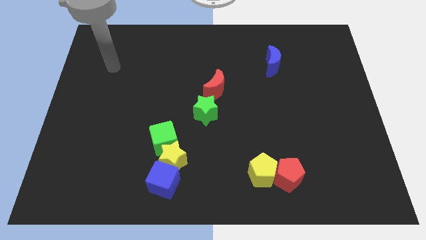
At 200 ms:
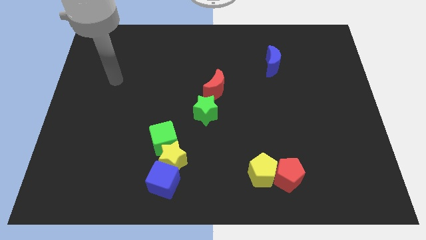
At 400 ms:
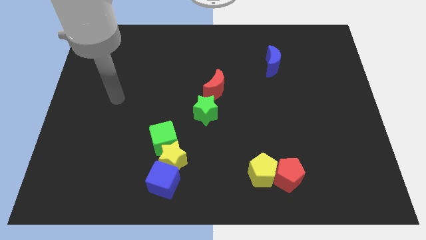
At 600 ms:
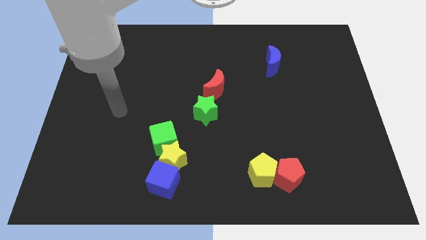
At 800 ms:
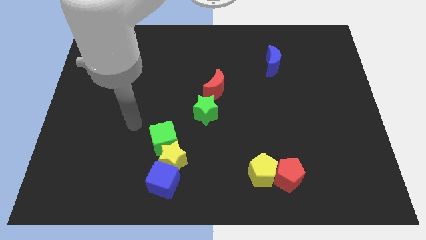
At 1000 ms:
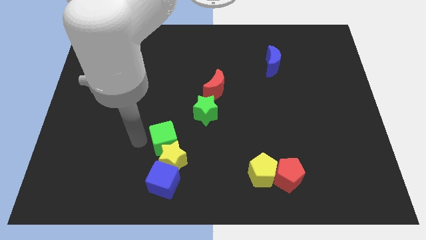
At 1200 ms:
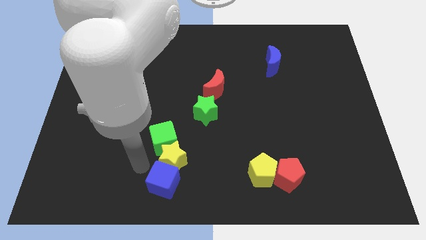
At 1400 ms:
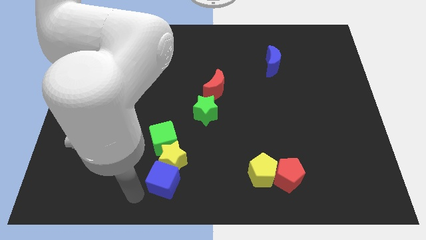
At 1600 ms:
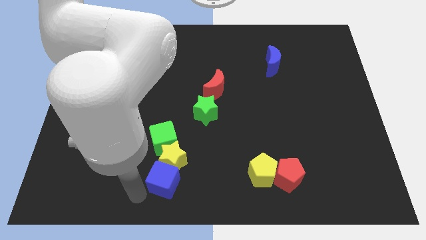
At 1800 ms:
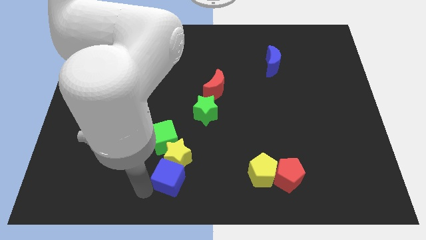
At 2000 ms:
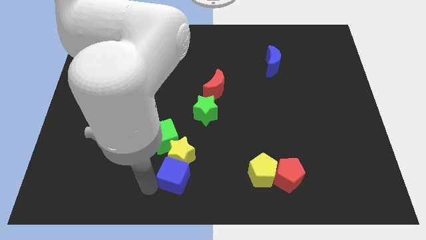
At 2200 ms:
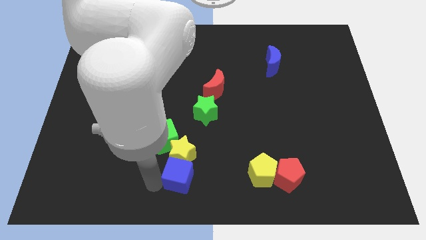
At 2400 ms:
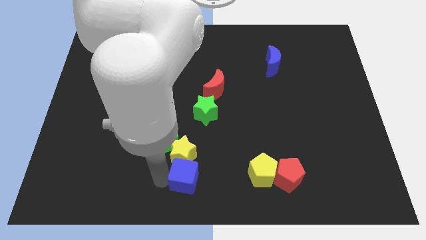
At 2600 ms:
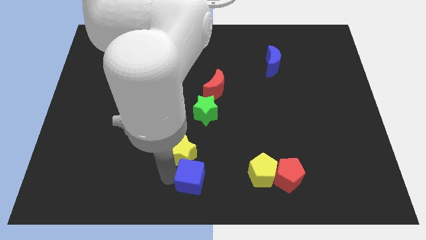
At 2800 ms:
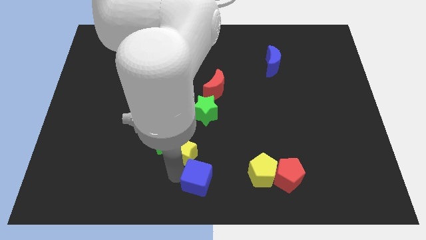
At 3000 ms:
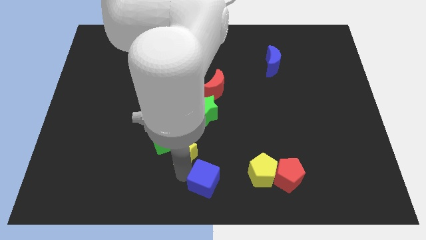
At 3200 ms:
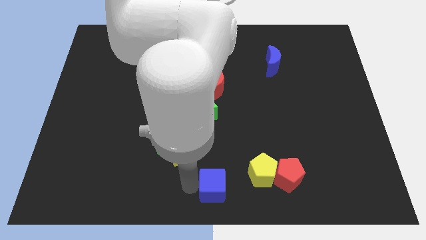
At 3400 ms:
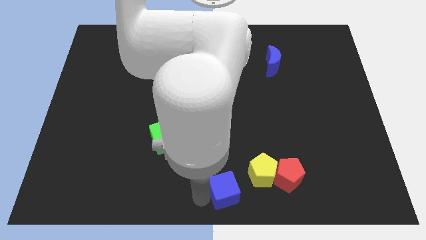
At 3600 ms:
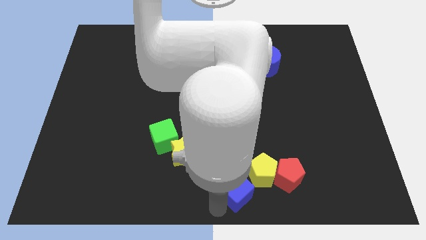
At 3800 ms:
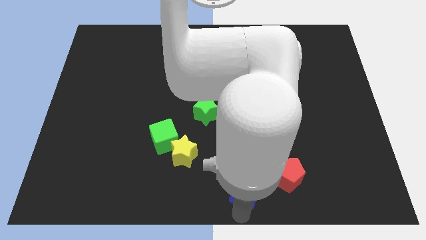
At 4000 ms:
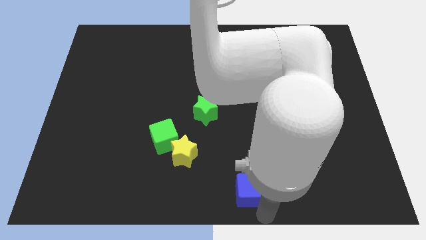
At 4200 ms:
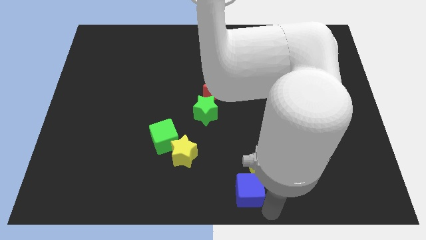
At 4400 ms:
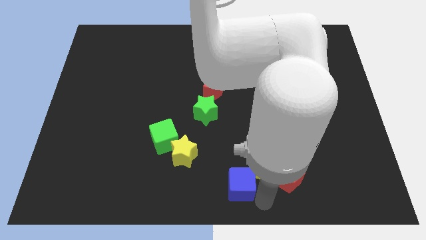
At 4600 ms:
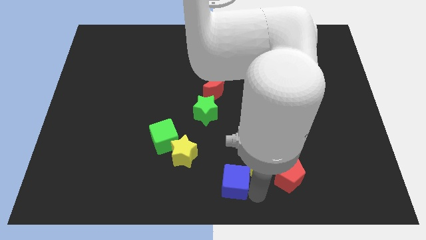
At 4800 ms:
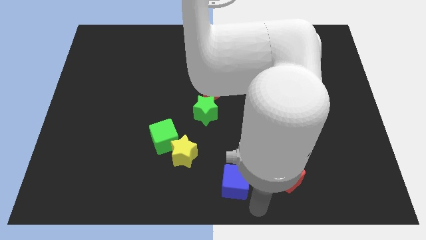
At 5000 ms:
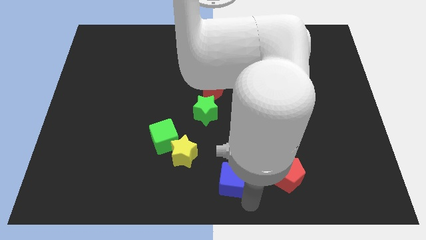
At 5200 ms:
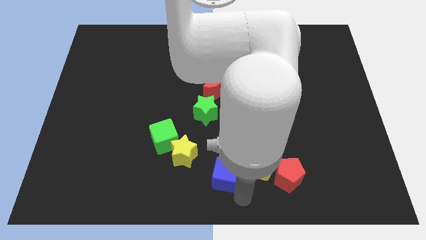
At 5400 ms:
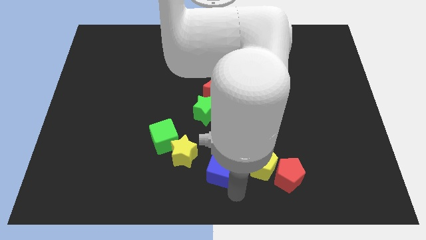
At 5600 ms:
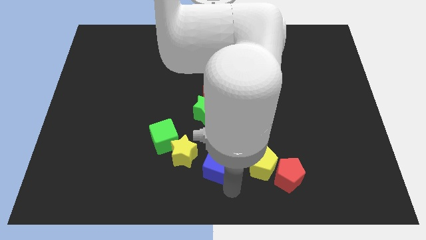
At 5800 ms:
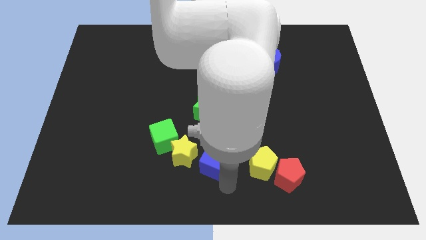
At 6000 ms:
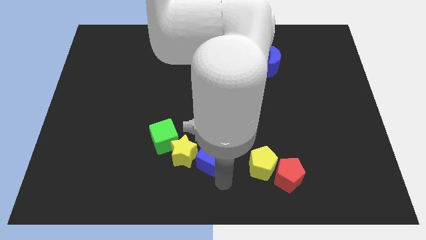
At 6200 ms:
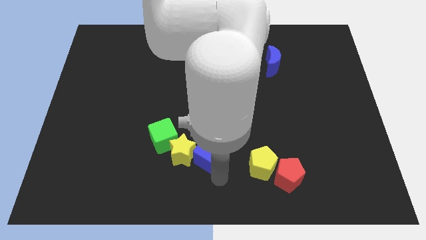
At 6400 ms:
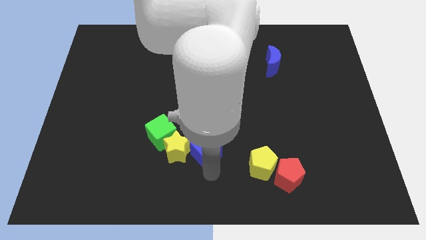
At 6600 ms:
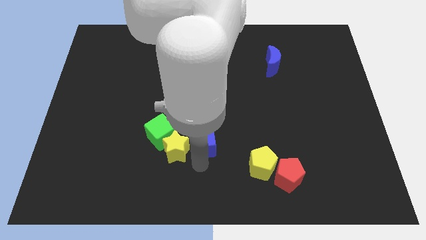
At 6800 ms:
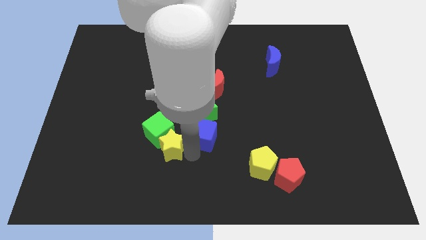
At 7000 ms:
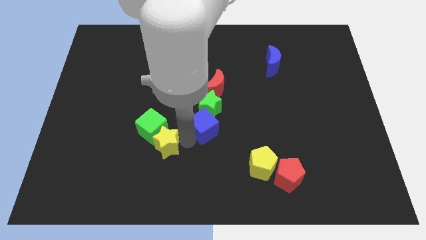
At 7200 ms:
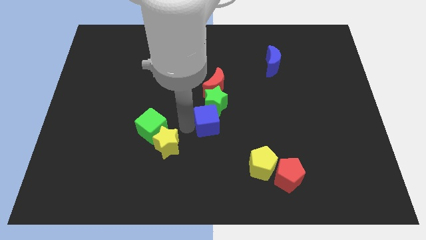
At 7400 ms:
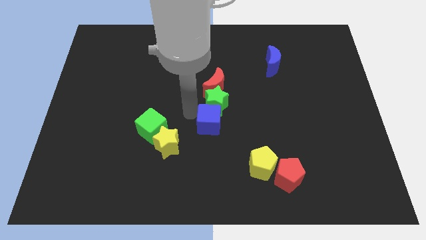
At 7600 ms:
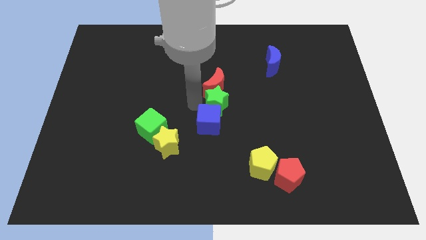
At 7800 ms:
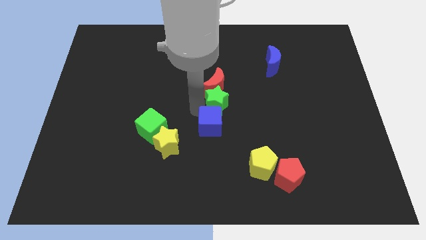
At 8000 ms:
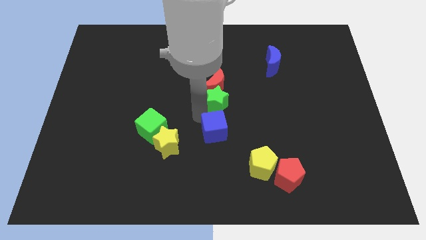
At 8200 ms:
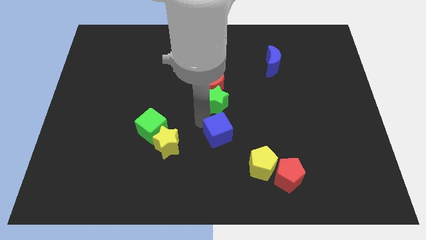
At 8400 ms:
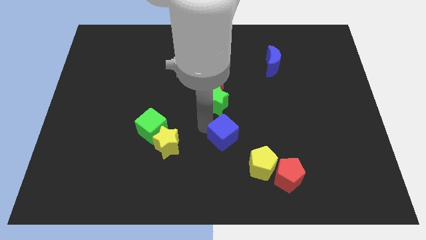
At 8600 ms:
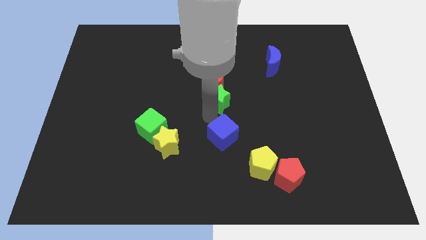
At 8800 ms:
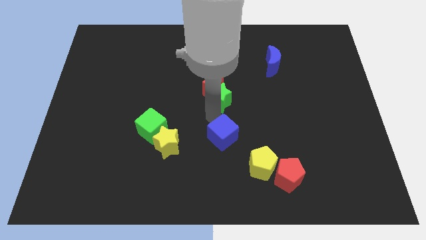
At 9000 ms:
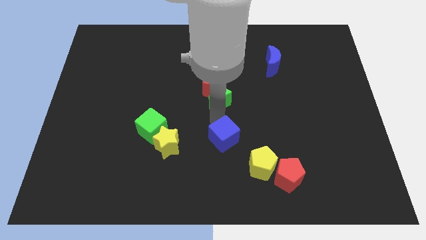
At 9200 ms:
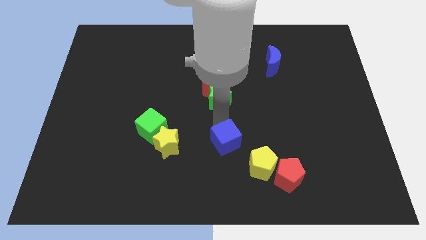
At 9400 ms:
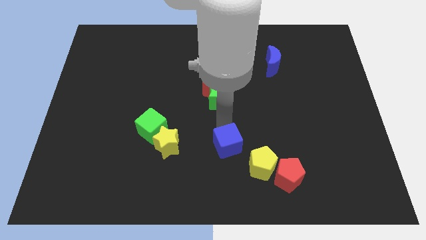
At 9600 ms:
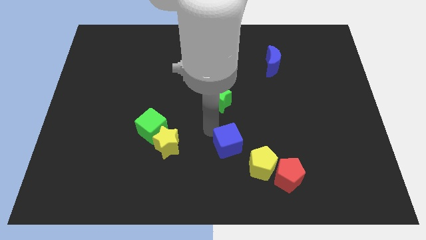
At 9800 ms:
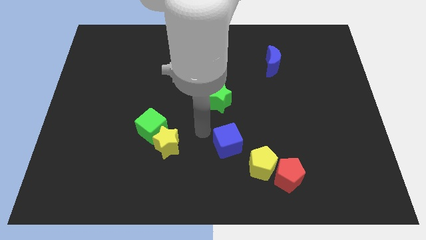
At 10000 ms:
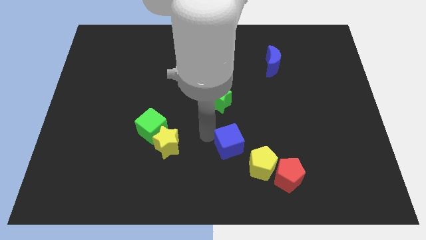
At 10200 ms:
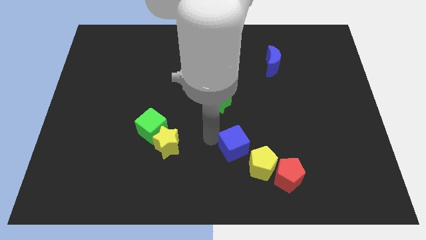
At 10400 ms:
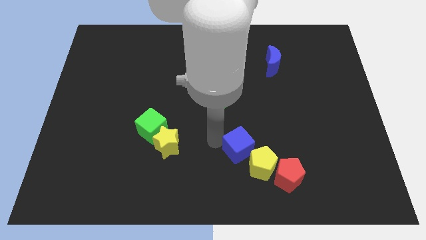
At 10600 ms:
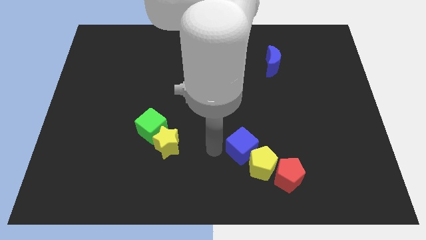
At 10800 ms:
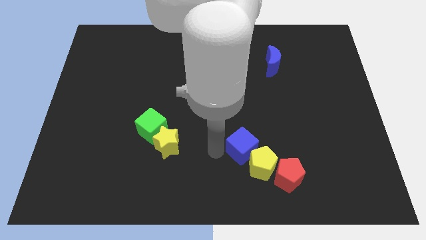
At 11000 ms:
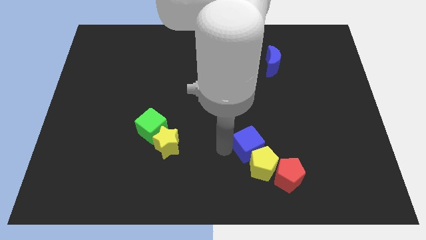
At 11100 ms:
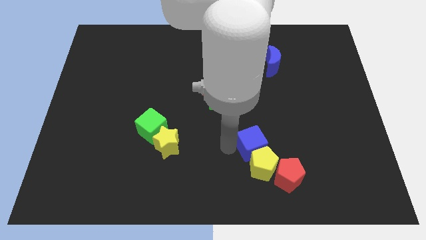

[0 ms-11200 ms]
put the blue cube diagonally up and to the right of the yellow pentagon

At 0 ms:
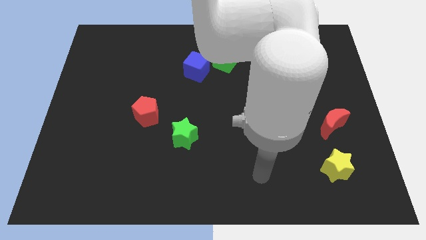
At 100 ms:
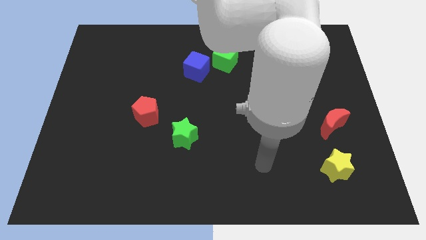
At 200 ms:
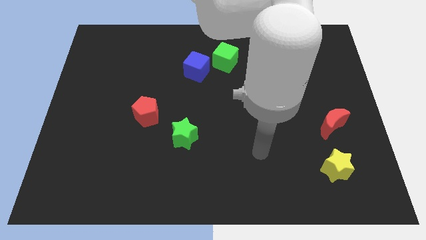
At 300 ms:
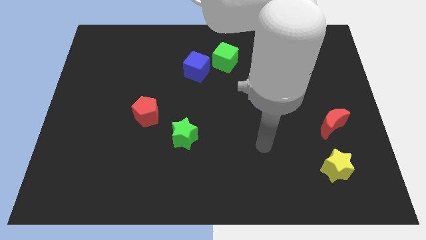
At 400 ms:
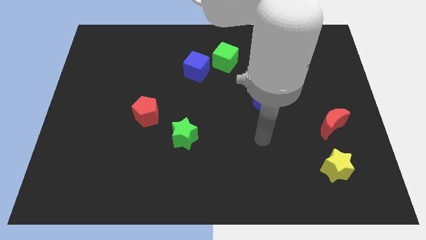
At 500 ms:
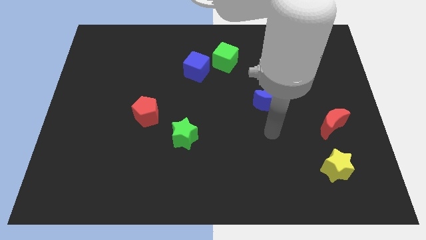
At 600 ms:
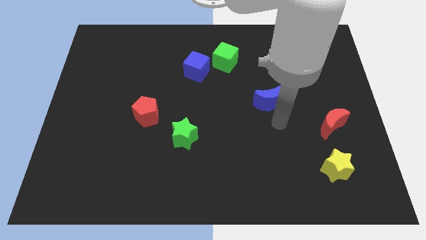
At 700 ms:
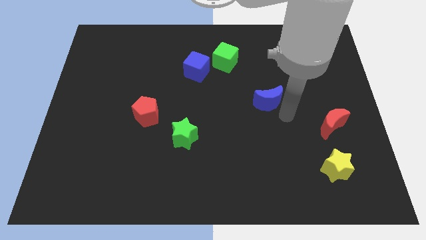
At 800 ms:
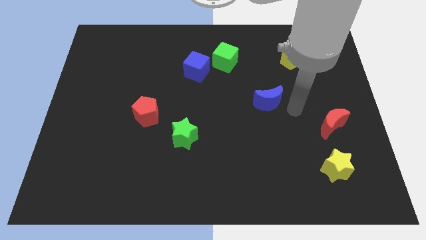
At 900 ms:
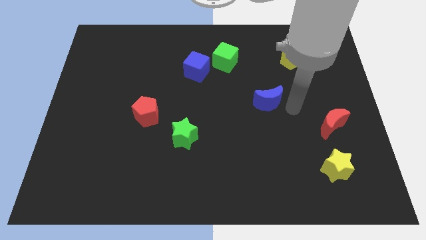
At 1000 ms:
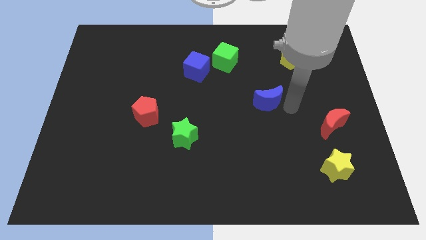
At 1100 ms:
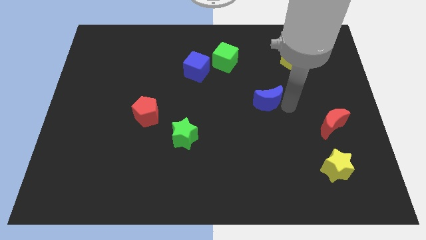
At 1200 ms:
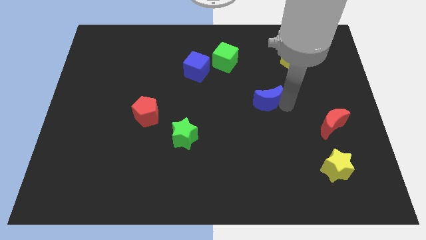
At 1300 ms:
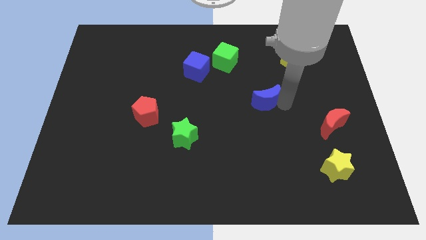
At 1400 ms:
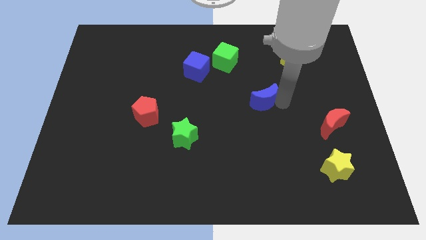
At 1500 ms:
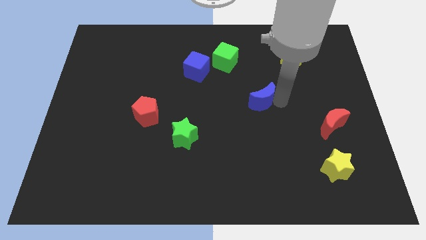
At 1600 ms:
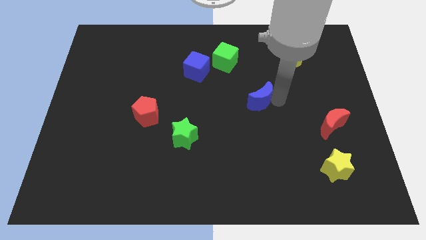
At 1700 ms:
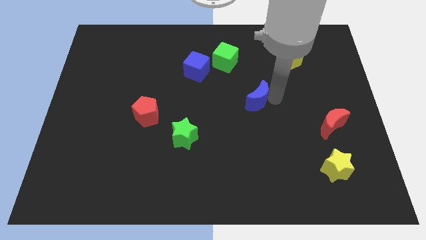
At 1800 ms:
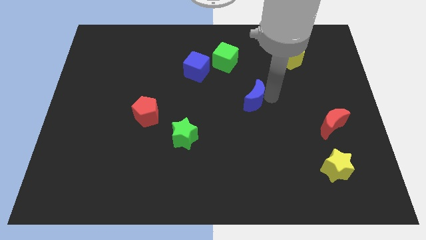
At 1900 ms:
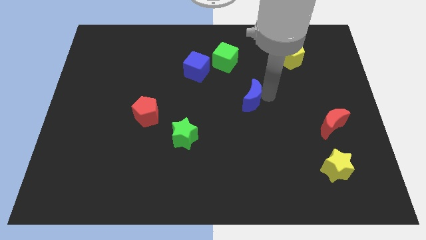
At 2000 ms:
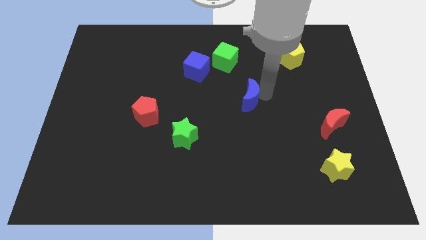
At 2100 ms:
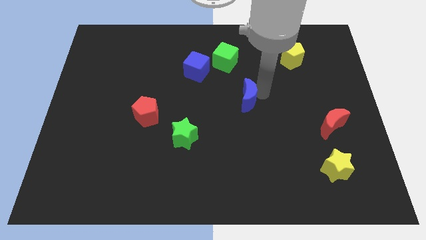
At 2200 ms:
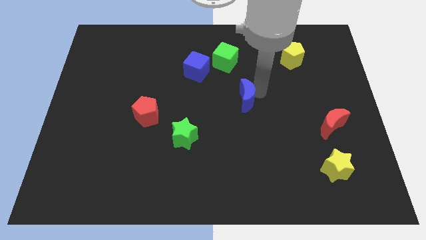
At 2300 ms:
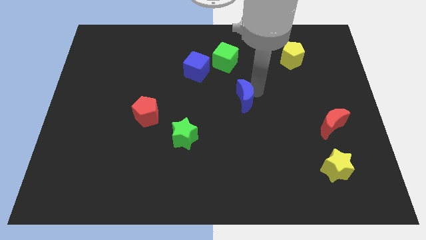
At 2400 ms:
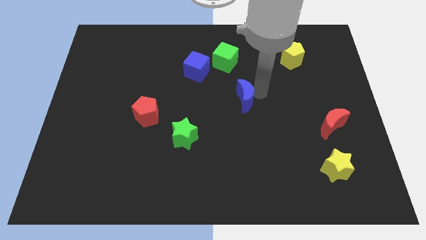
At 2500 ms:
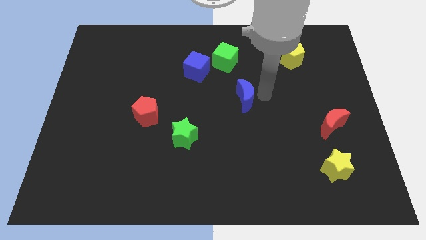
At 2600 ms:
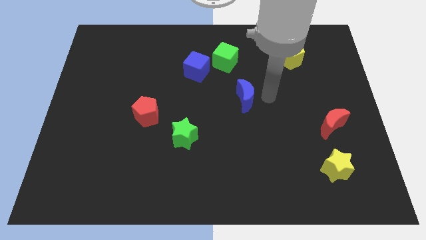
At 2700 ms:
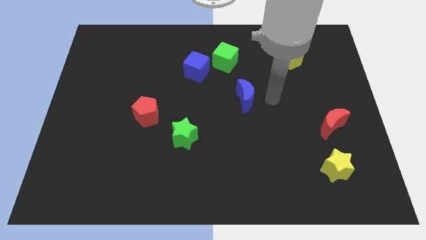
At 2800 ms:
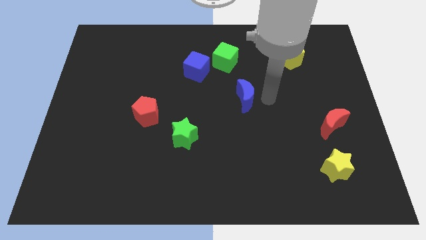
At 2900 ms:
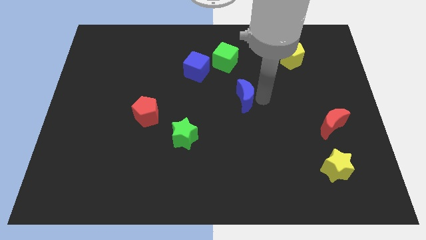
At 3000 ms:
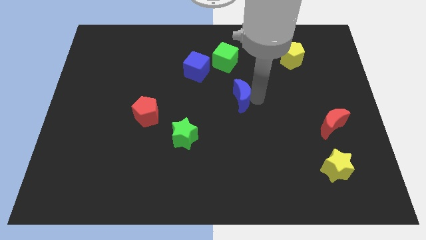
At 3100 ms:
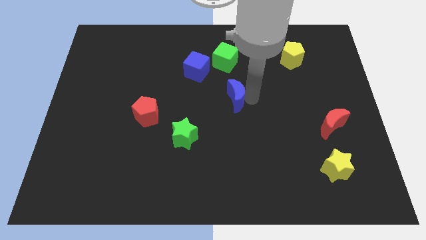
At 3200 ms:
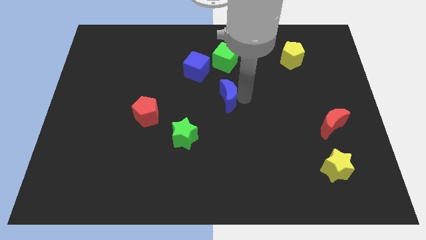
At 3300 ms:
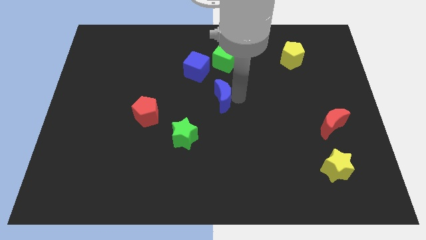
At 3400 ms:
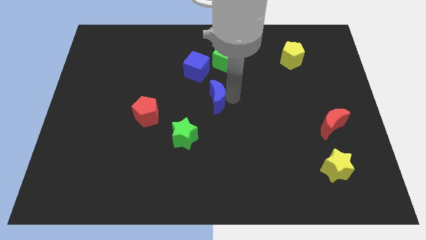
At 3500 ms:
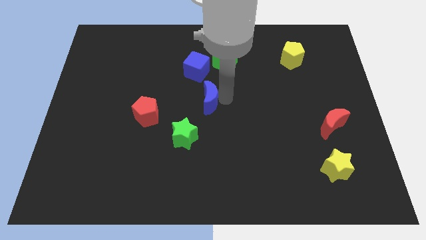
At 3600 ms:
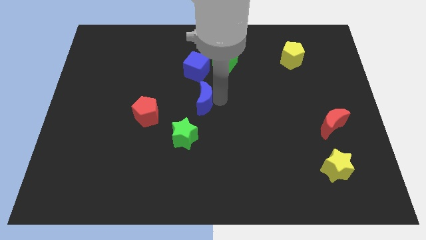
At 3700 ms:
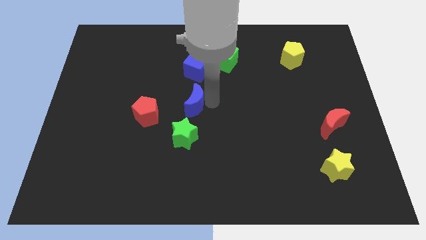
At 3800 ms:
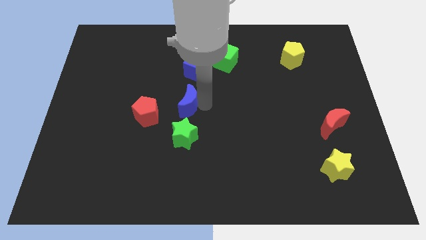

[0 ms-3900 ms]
move the blue moon diagonally up and to the right of the red pentagon
